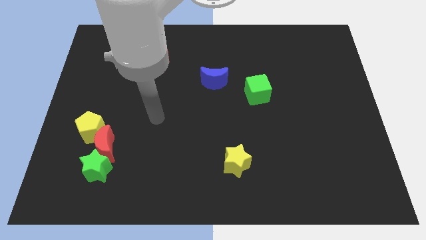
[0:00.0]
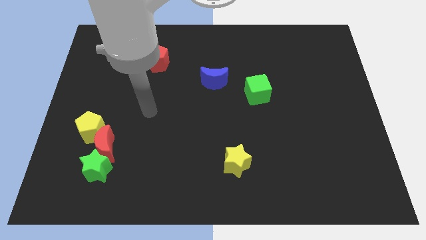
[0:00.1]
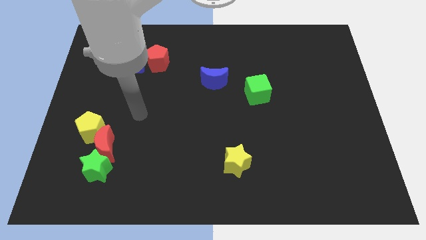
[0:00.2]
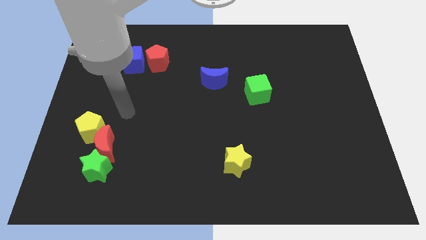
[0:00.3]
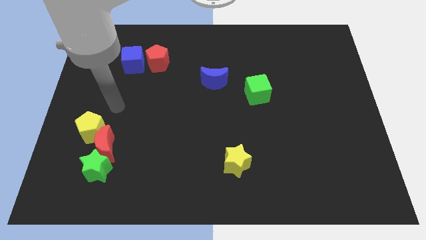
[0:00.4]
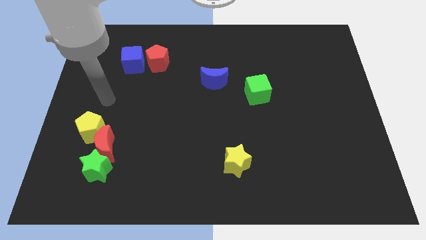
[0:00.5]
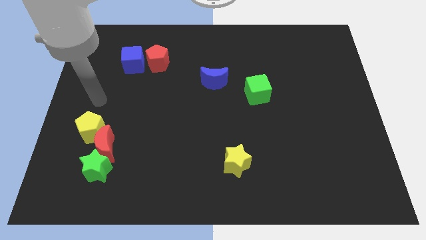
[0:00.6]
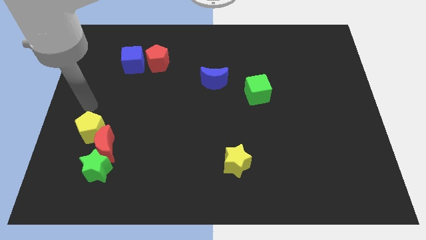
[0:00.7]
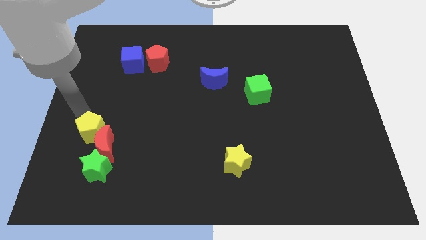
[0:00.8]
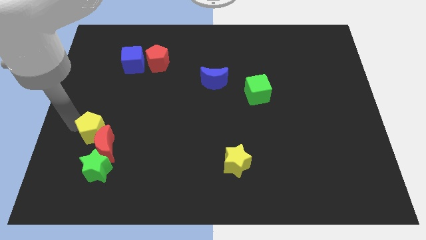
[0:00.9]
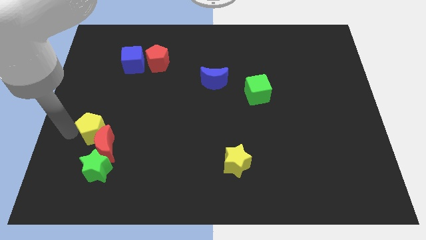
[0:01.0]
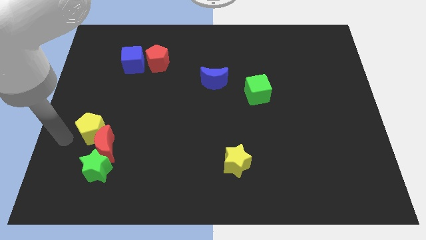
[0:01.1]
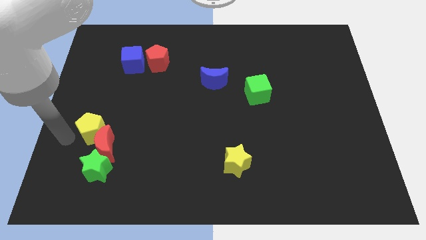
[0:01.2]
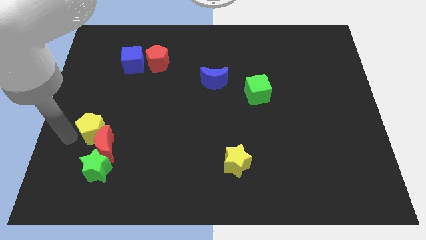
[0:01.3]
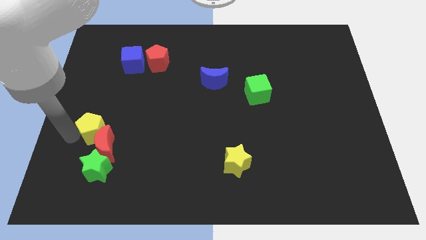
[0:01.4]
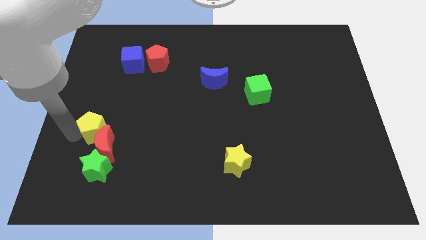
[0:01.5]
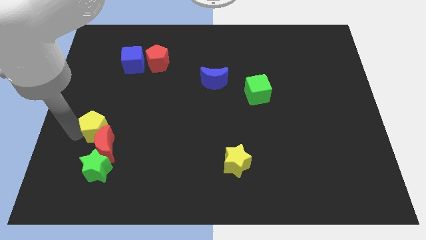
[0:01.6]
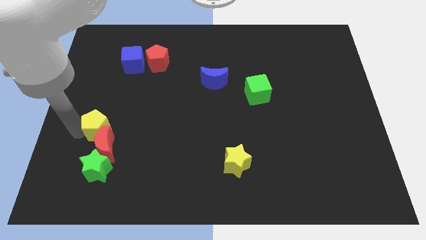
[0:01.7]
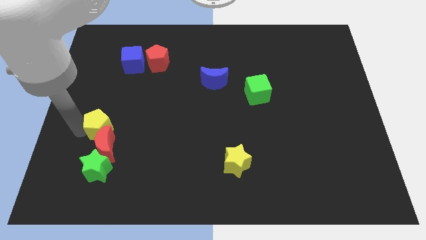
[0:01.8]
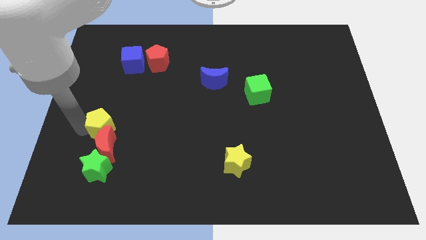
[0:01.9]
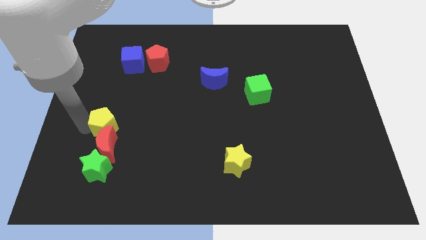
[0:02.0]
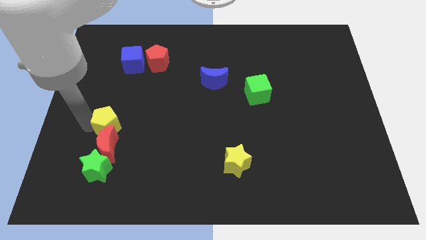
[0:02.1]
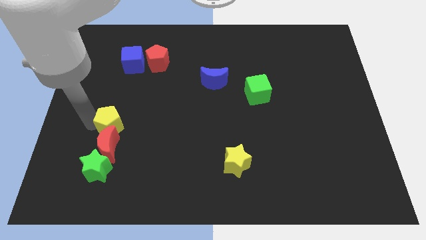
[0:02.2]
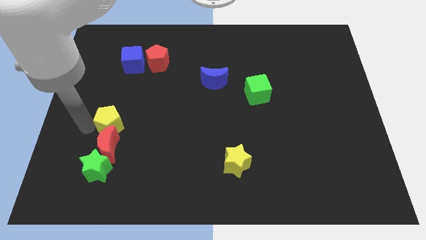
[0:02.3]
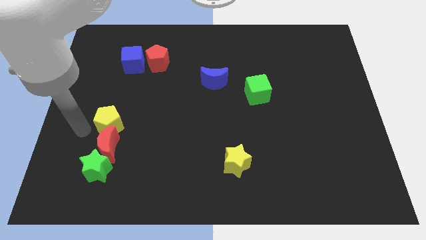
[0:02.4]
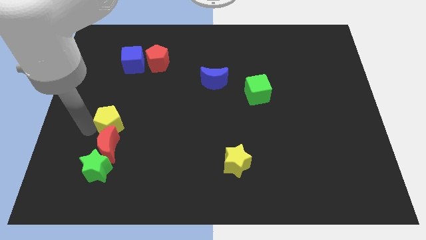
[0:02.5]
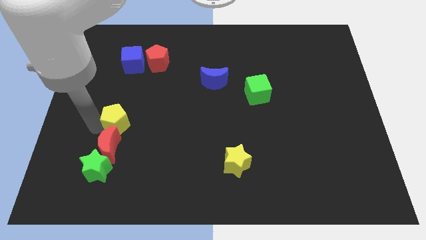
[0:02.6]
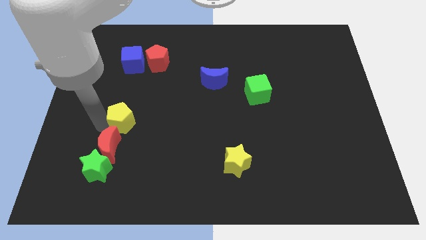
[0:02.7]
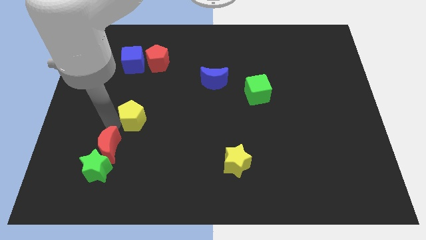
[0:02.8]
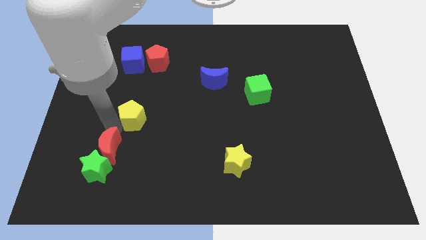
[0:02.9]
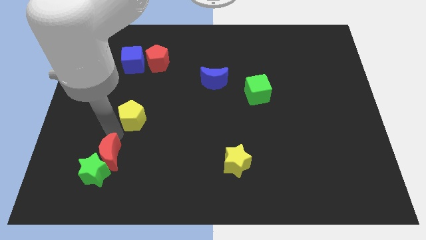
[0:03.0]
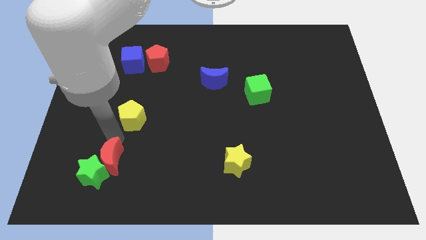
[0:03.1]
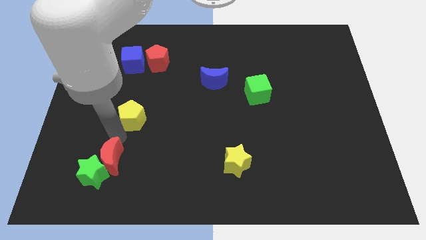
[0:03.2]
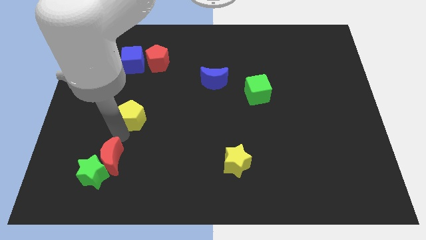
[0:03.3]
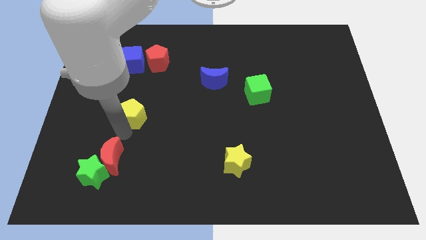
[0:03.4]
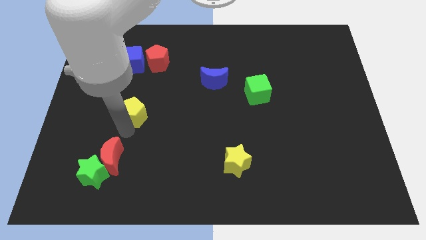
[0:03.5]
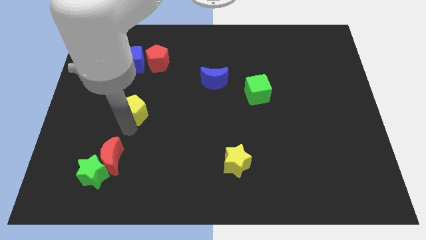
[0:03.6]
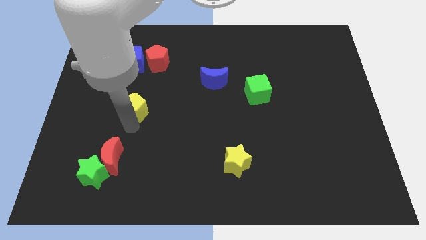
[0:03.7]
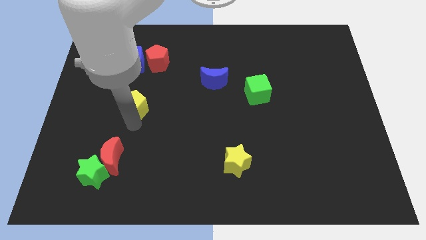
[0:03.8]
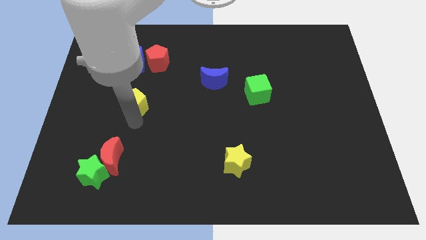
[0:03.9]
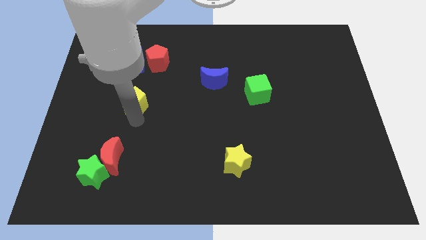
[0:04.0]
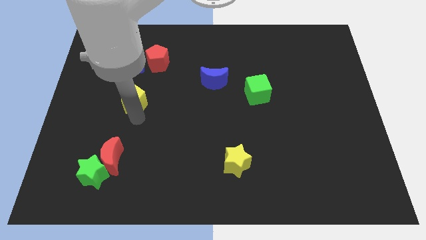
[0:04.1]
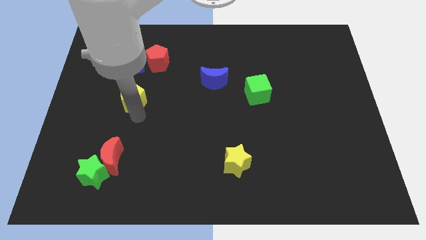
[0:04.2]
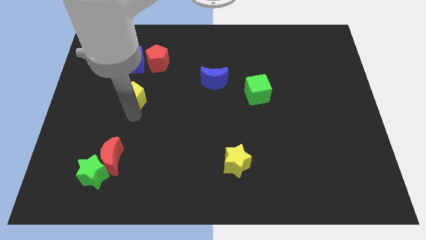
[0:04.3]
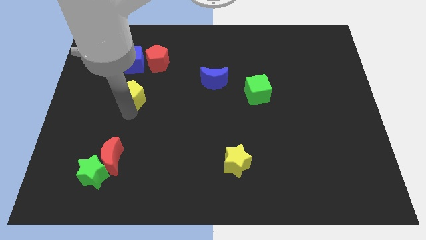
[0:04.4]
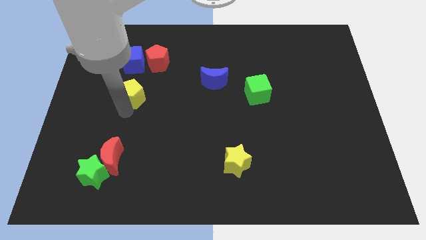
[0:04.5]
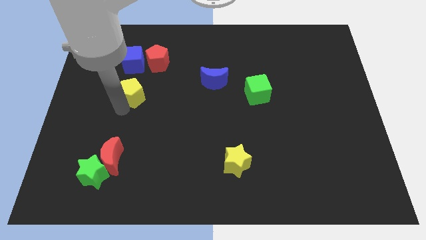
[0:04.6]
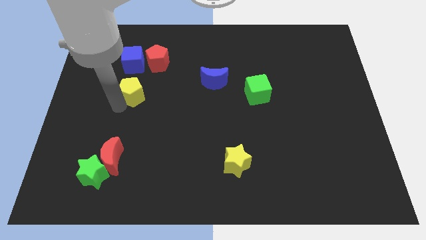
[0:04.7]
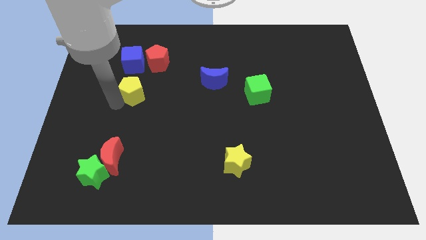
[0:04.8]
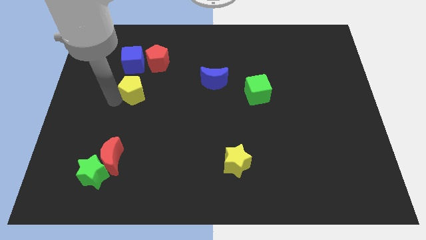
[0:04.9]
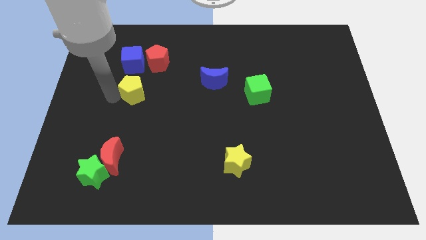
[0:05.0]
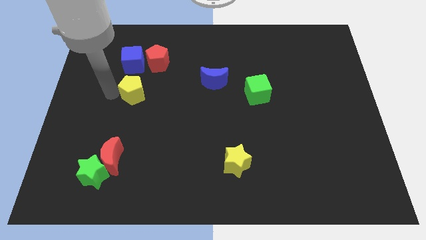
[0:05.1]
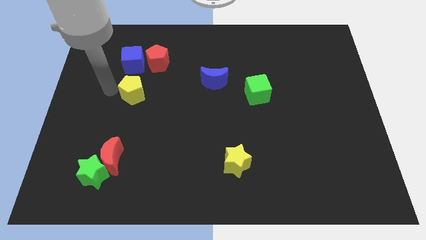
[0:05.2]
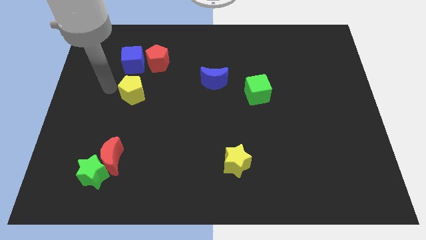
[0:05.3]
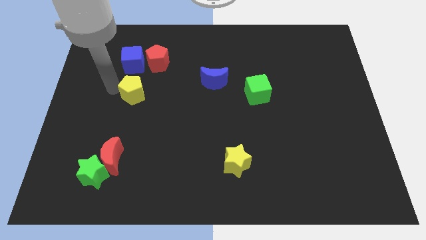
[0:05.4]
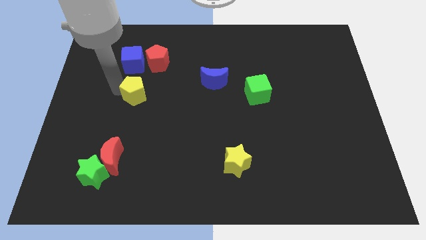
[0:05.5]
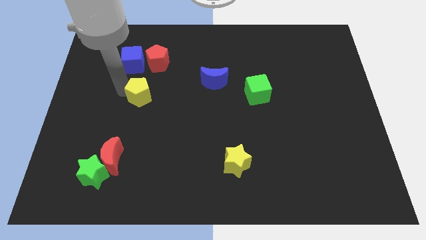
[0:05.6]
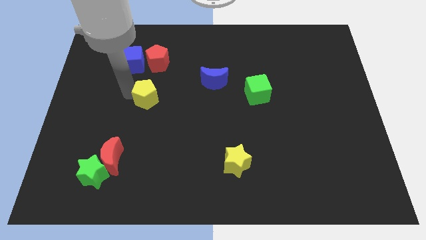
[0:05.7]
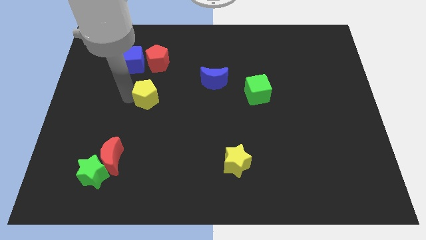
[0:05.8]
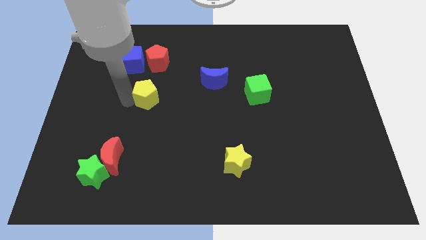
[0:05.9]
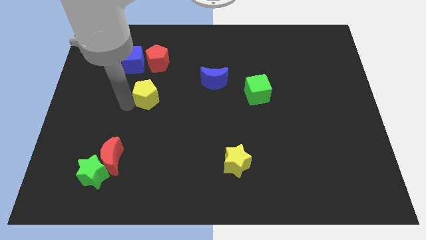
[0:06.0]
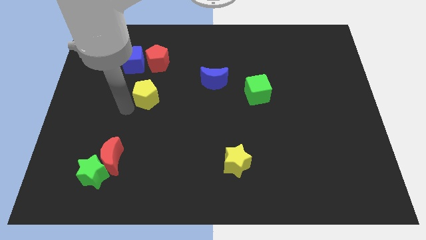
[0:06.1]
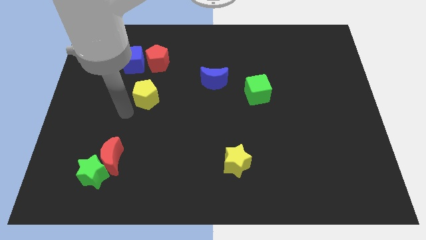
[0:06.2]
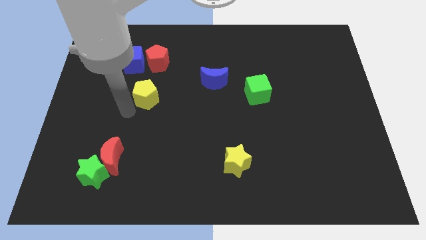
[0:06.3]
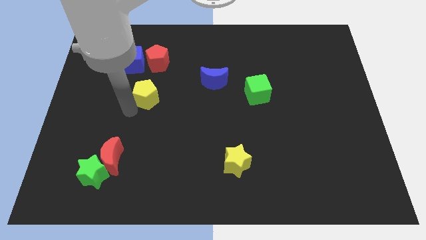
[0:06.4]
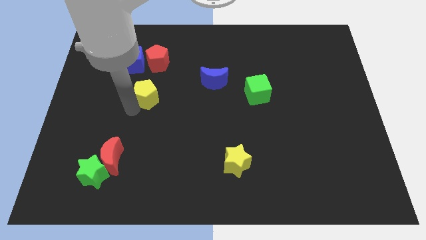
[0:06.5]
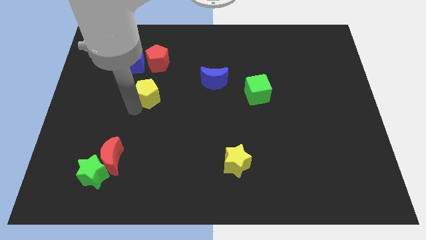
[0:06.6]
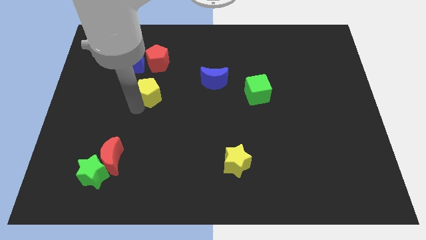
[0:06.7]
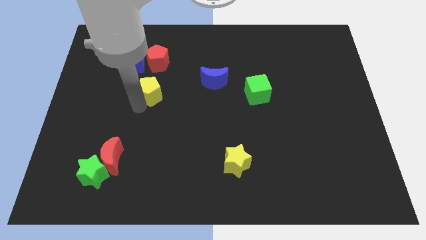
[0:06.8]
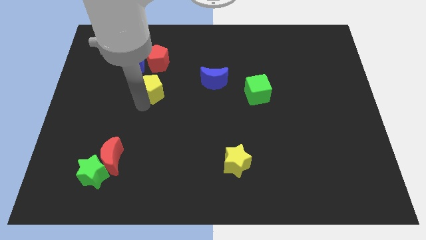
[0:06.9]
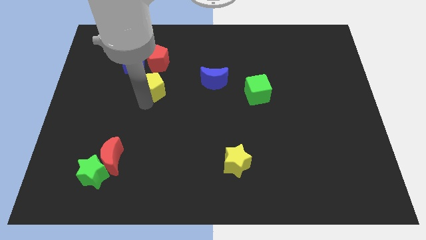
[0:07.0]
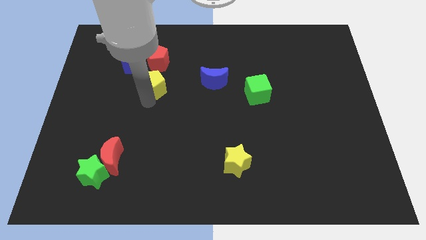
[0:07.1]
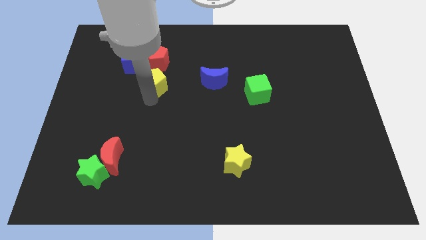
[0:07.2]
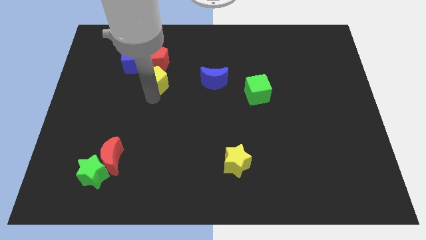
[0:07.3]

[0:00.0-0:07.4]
move the yellow pentagon diagonally down and to the right of the red pentagon
